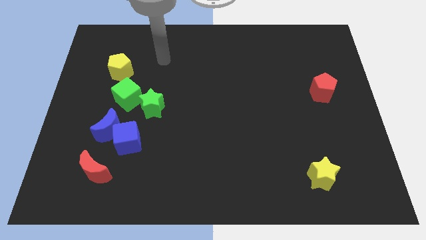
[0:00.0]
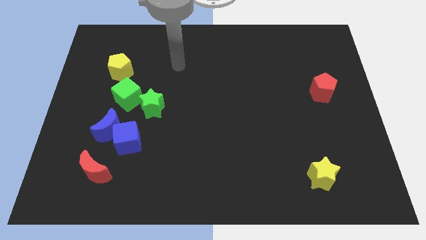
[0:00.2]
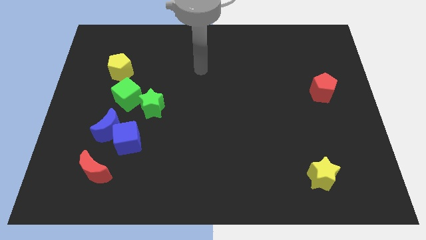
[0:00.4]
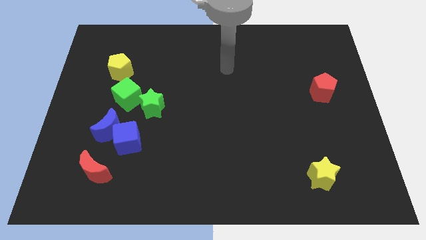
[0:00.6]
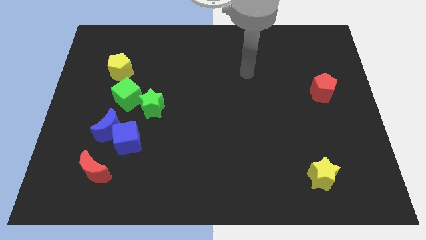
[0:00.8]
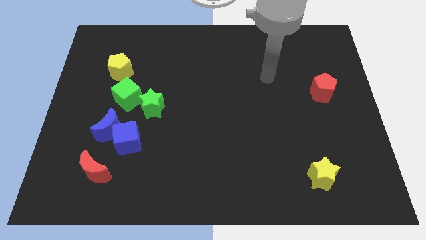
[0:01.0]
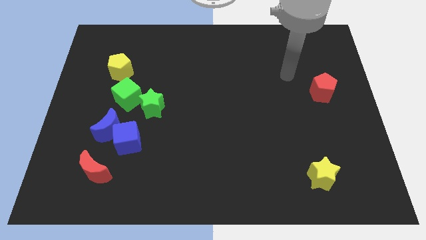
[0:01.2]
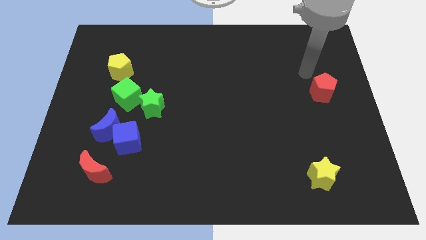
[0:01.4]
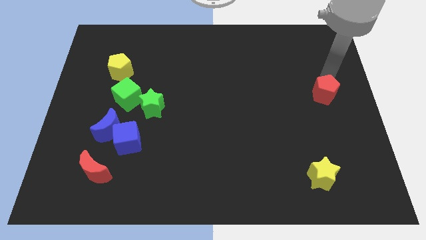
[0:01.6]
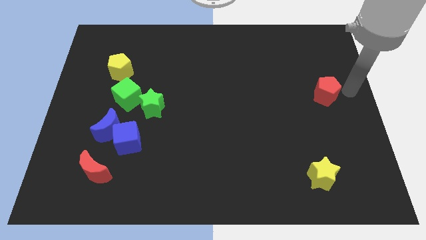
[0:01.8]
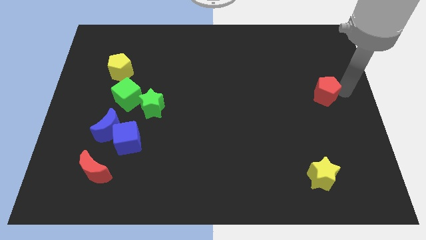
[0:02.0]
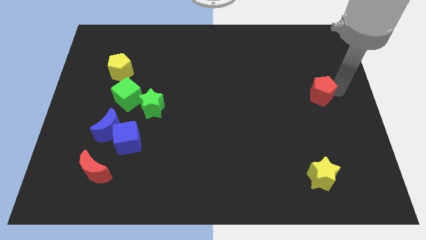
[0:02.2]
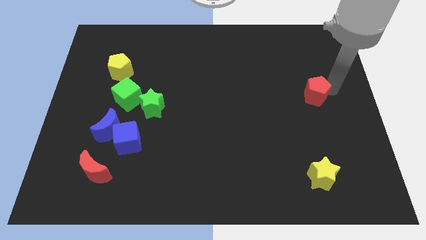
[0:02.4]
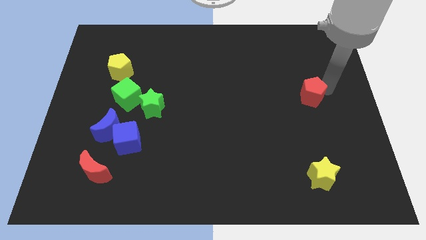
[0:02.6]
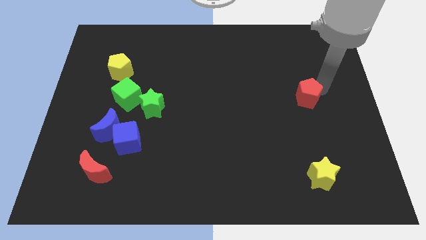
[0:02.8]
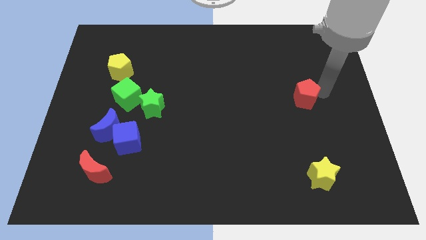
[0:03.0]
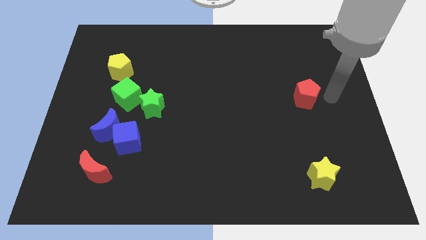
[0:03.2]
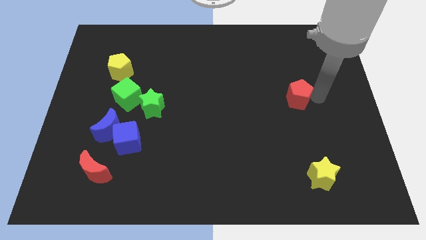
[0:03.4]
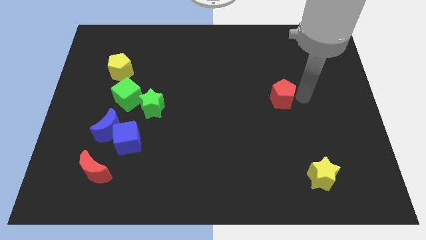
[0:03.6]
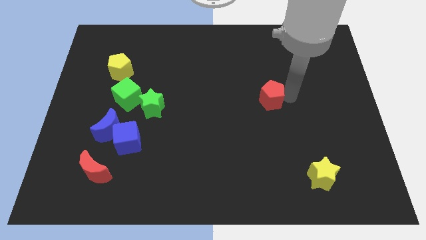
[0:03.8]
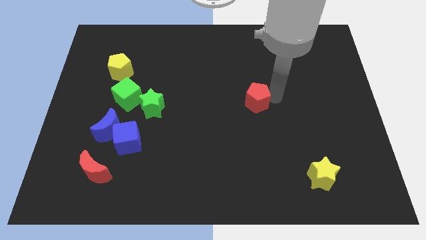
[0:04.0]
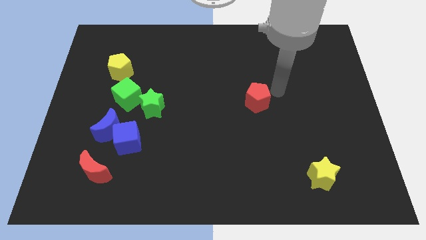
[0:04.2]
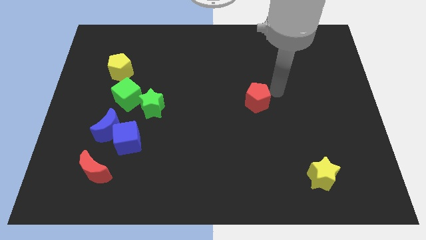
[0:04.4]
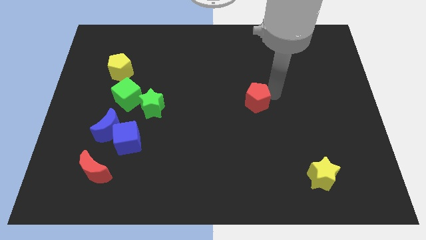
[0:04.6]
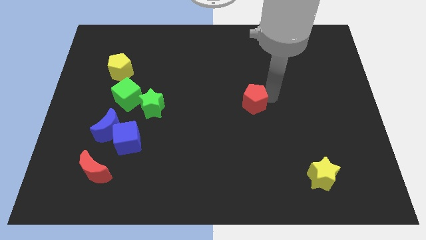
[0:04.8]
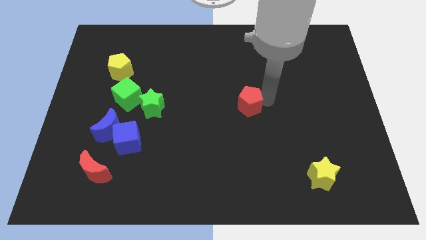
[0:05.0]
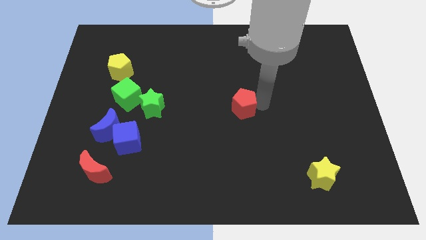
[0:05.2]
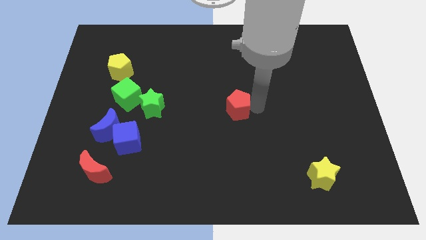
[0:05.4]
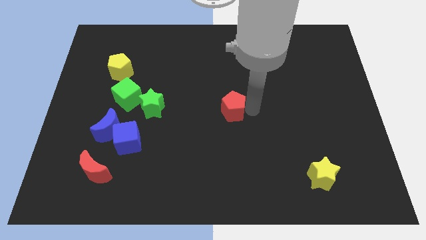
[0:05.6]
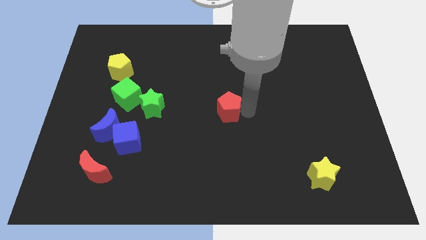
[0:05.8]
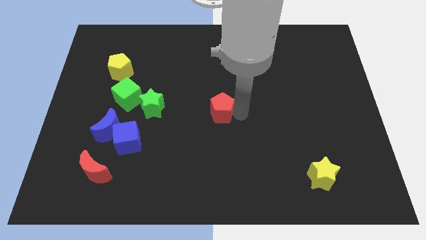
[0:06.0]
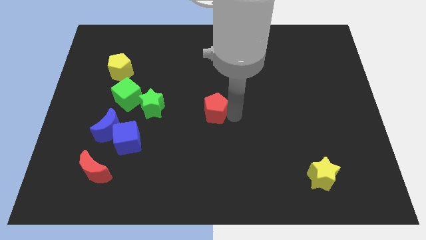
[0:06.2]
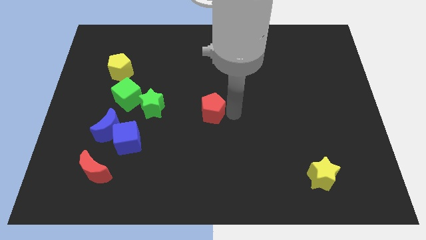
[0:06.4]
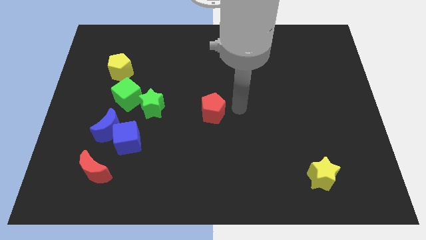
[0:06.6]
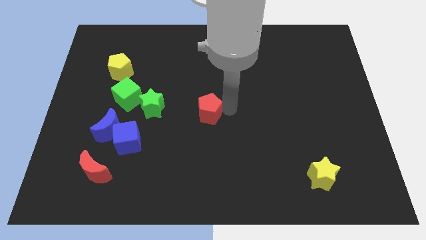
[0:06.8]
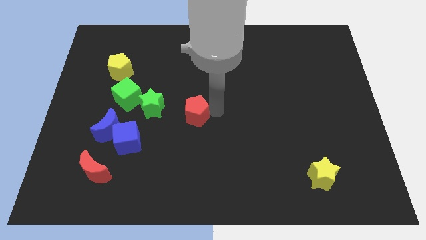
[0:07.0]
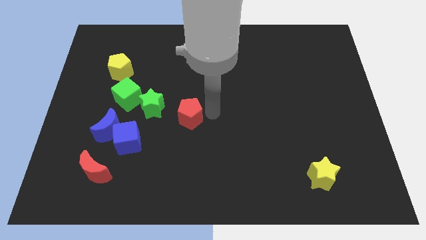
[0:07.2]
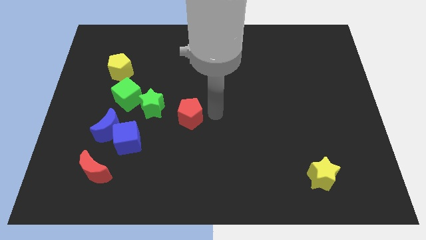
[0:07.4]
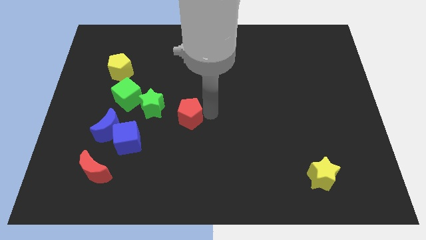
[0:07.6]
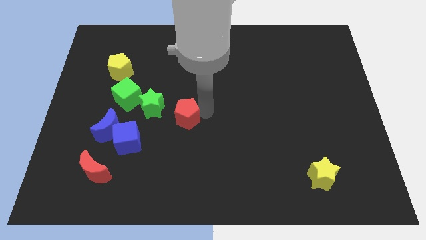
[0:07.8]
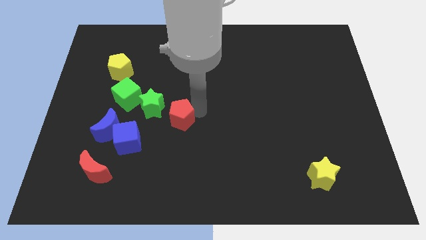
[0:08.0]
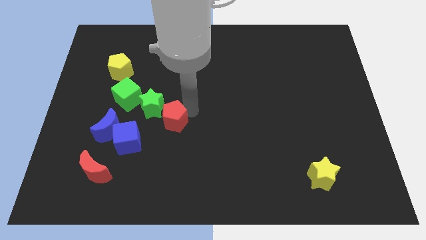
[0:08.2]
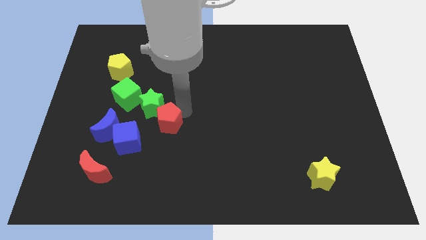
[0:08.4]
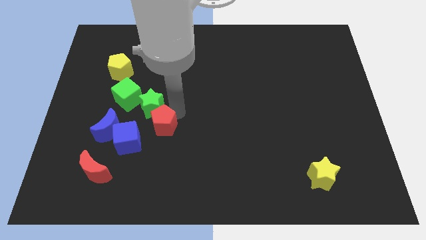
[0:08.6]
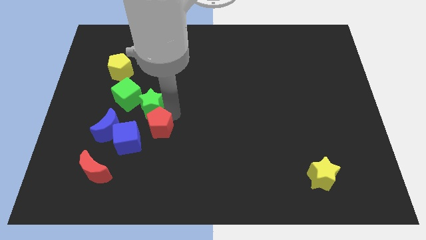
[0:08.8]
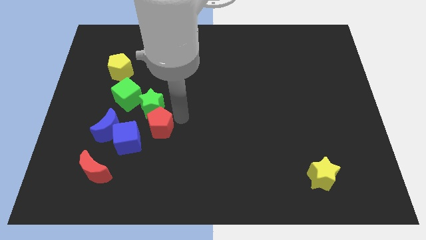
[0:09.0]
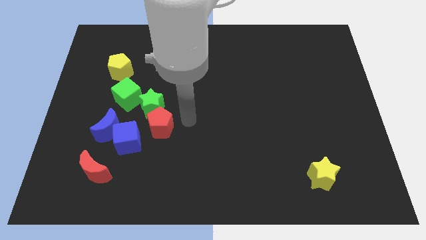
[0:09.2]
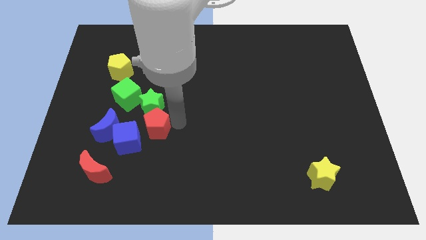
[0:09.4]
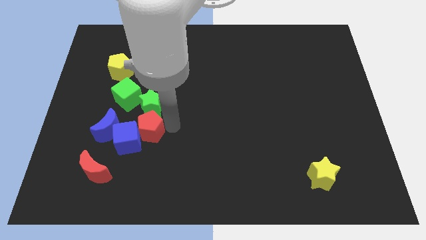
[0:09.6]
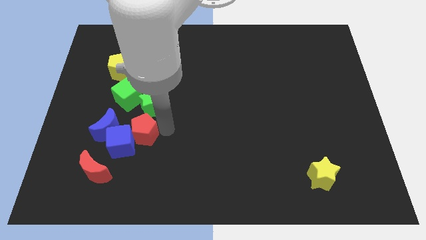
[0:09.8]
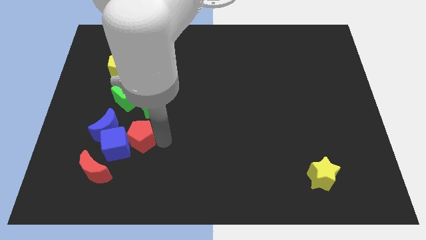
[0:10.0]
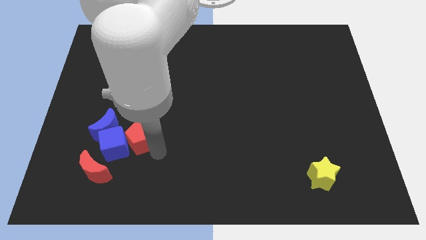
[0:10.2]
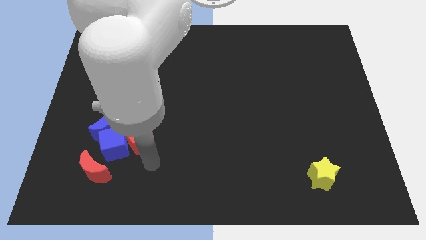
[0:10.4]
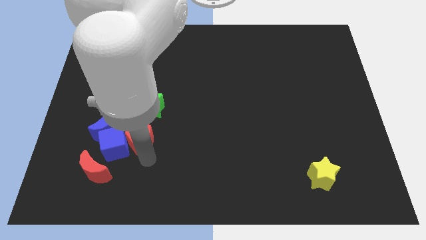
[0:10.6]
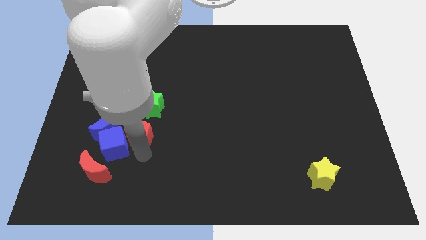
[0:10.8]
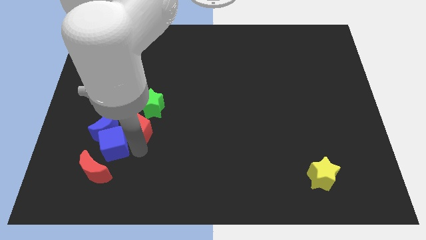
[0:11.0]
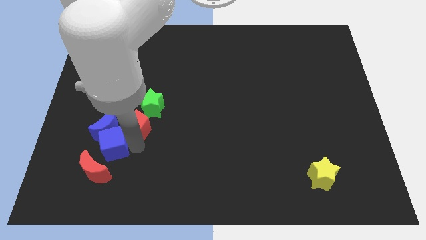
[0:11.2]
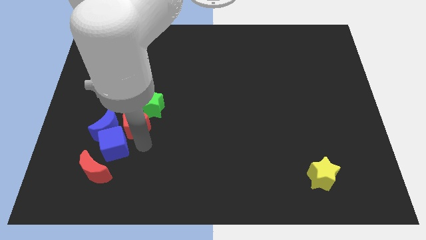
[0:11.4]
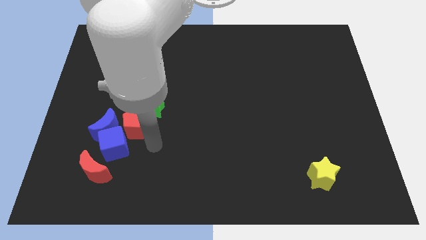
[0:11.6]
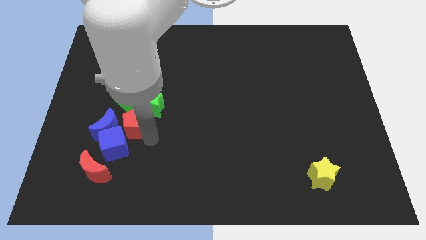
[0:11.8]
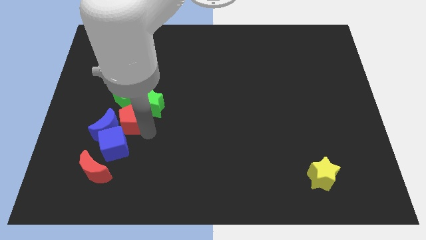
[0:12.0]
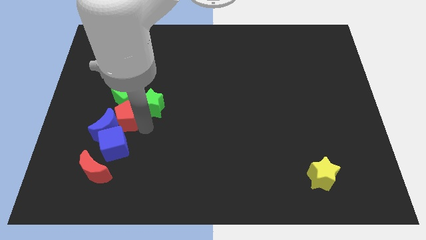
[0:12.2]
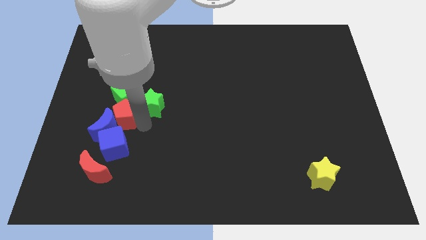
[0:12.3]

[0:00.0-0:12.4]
put the red pentagon below the yellow pentagon

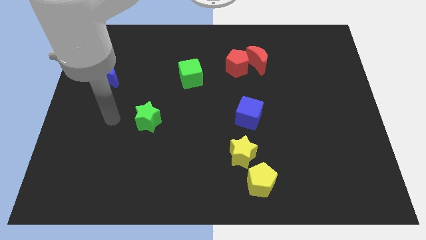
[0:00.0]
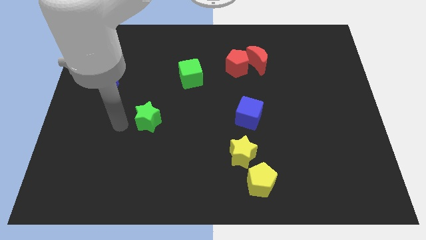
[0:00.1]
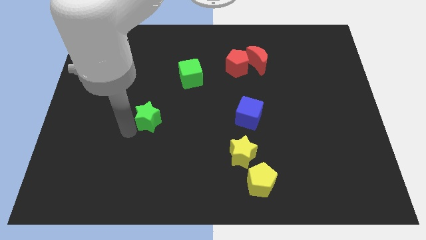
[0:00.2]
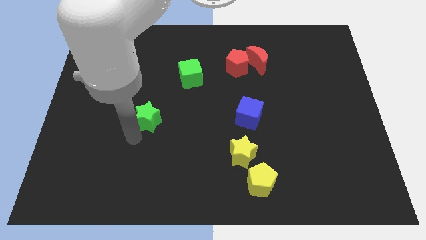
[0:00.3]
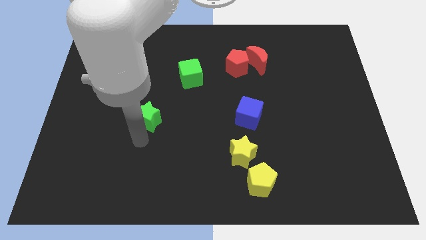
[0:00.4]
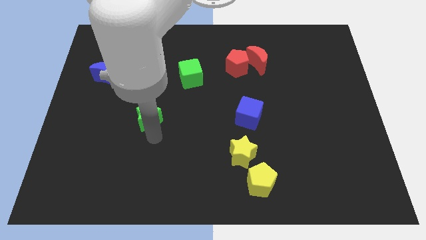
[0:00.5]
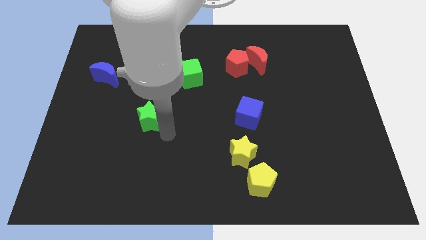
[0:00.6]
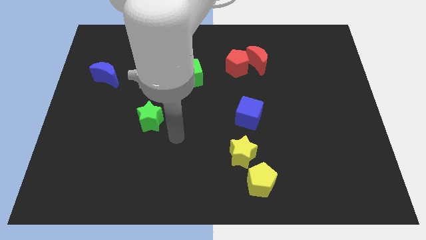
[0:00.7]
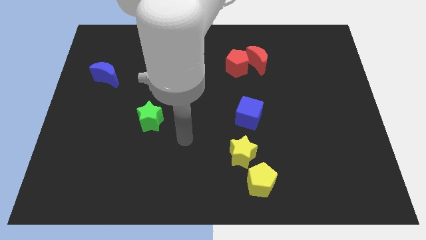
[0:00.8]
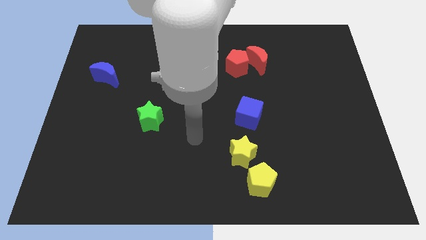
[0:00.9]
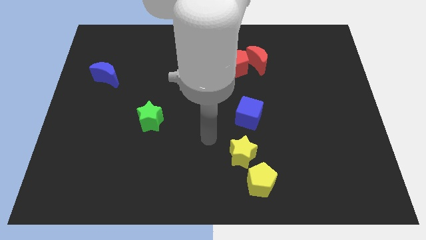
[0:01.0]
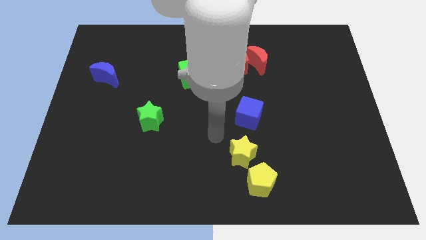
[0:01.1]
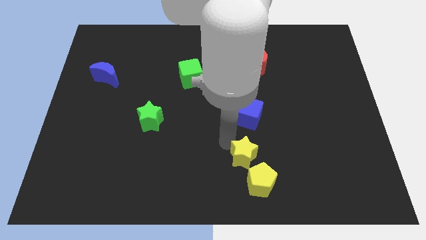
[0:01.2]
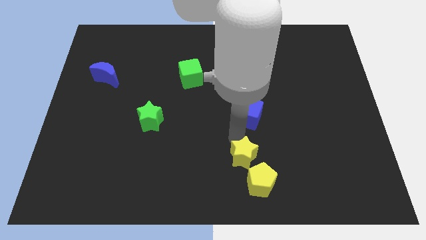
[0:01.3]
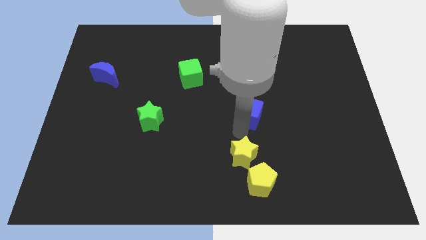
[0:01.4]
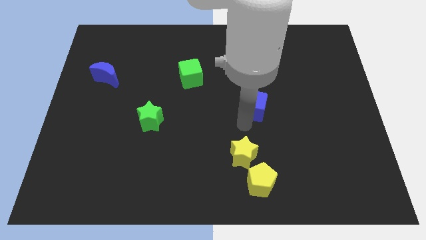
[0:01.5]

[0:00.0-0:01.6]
move the blue cube below the red moon
